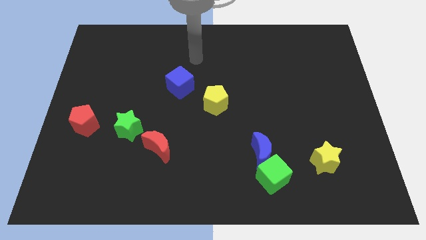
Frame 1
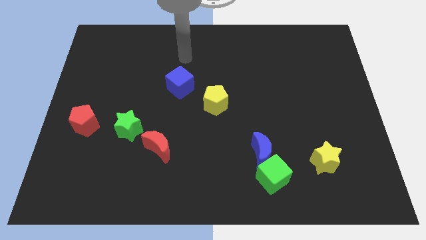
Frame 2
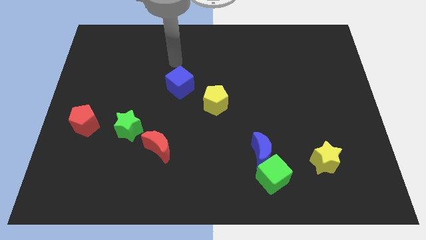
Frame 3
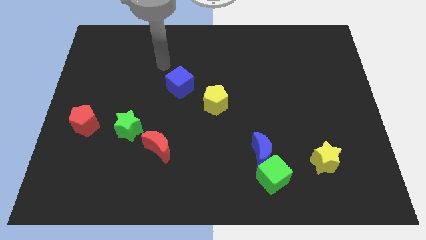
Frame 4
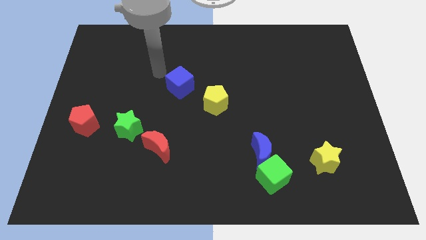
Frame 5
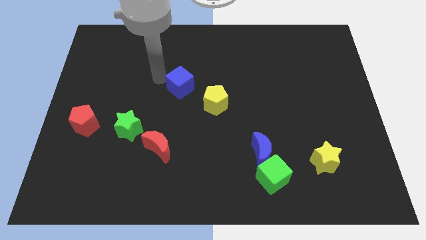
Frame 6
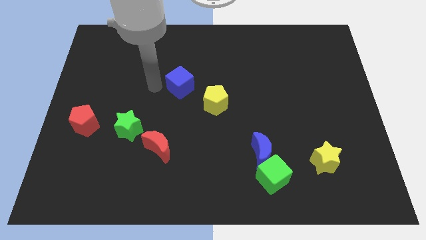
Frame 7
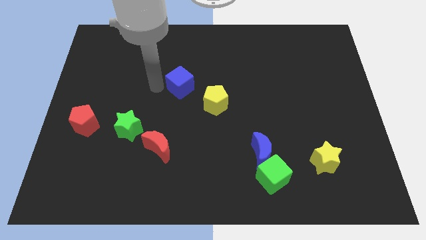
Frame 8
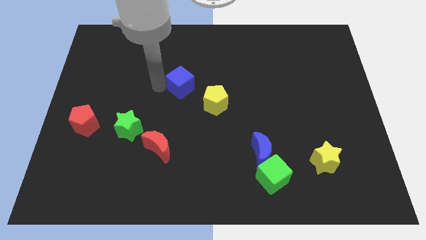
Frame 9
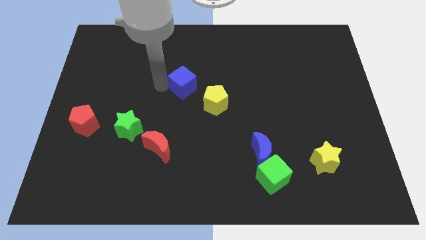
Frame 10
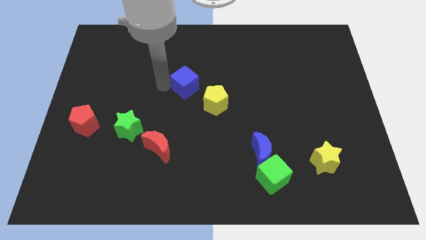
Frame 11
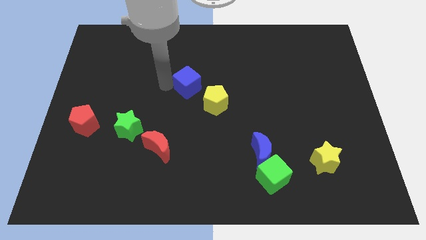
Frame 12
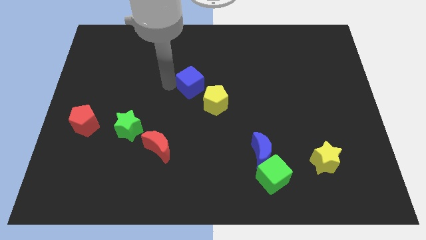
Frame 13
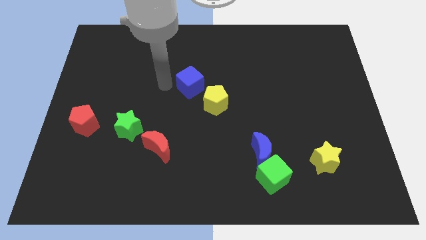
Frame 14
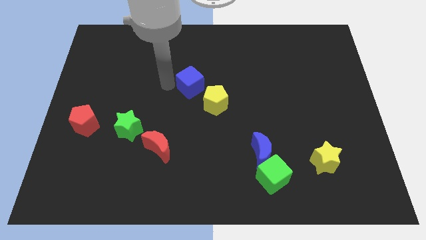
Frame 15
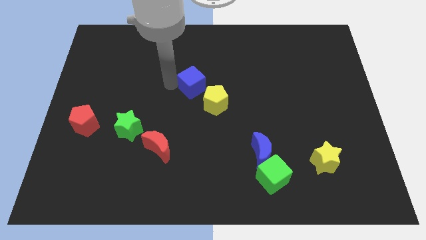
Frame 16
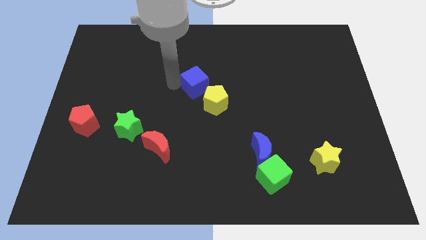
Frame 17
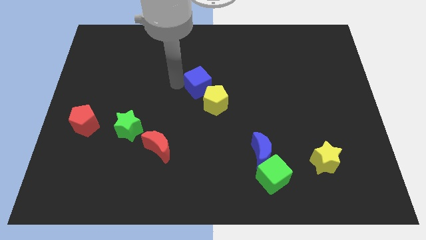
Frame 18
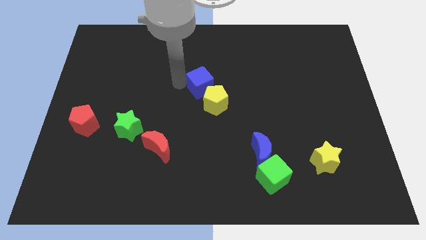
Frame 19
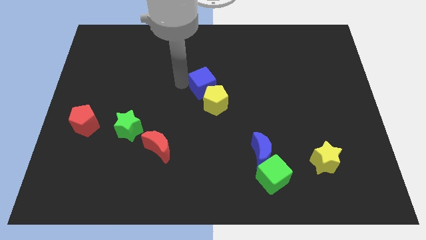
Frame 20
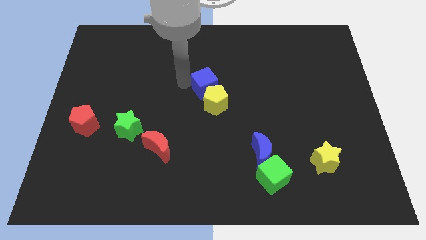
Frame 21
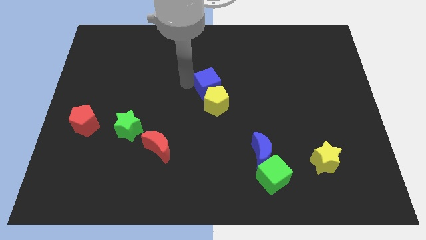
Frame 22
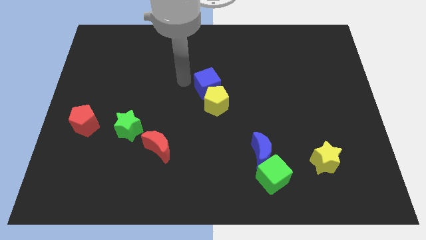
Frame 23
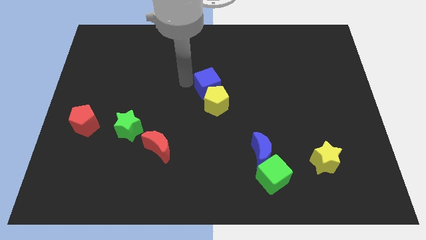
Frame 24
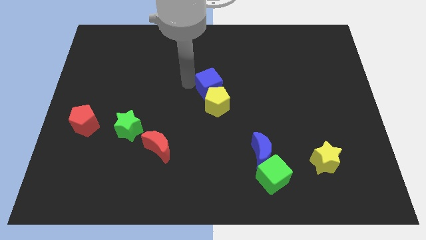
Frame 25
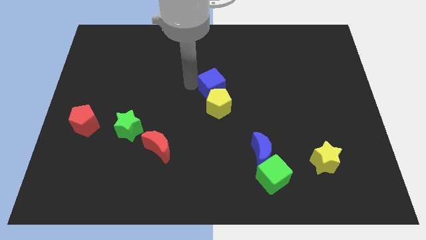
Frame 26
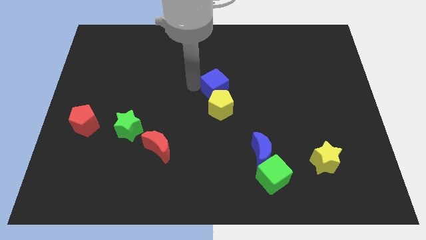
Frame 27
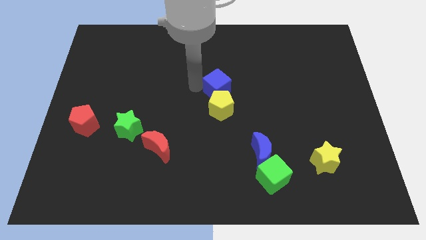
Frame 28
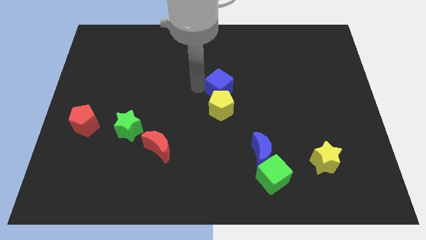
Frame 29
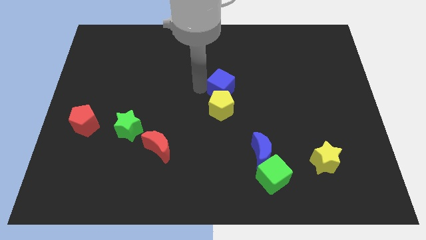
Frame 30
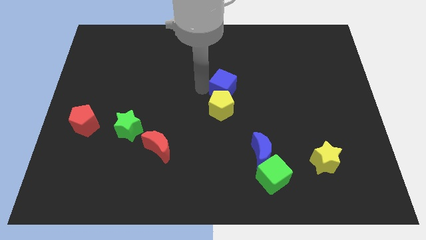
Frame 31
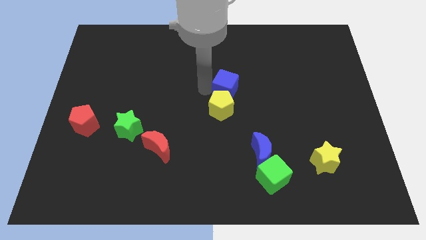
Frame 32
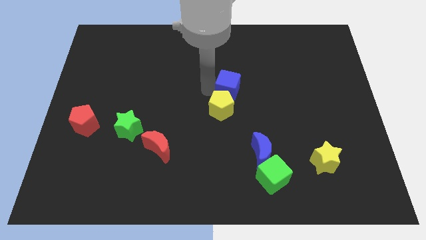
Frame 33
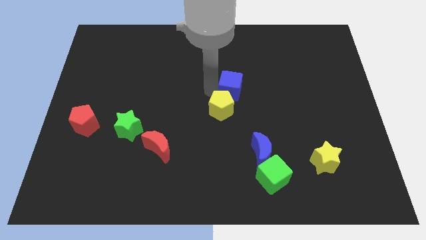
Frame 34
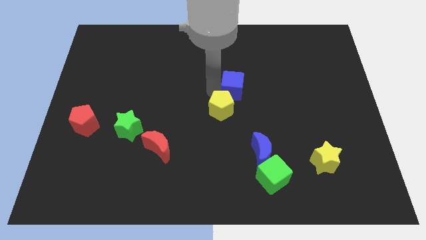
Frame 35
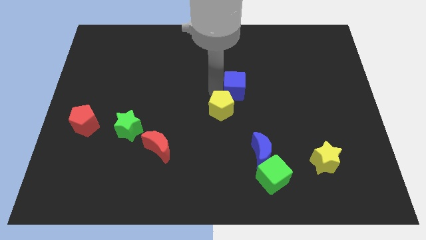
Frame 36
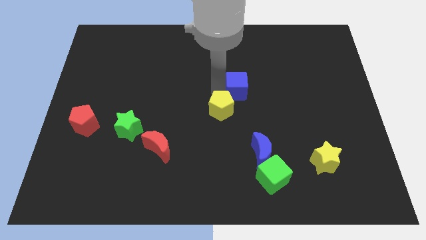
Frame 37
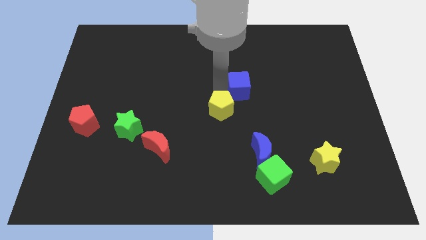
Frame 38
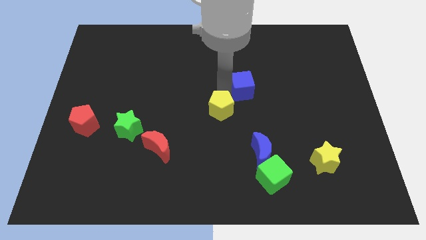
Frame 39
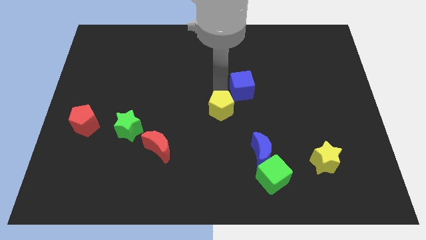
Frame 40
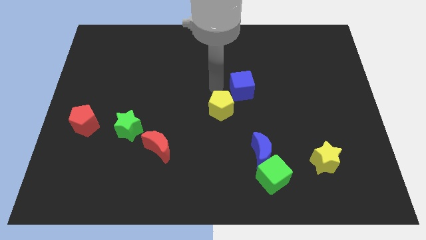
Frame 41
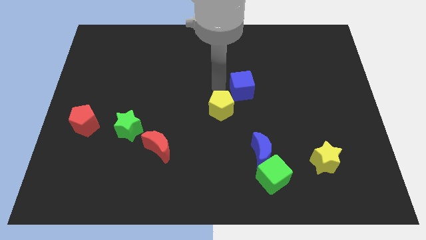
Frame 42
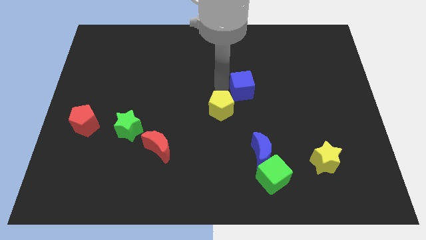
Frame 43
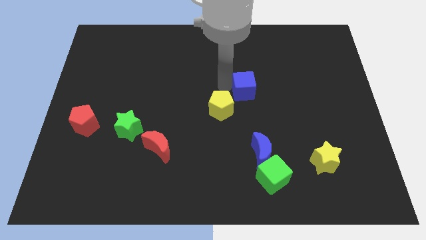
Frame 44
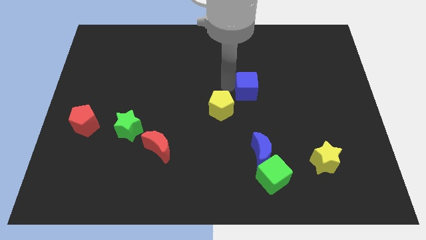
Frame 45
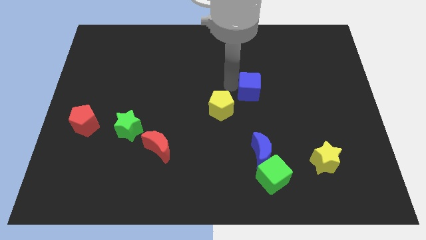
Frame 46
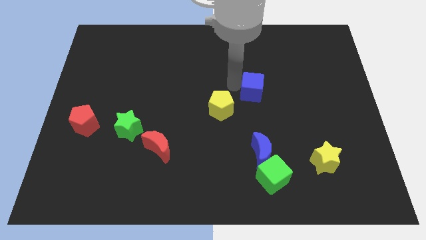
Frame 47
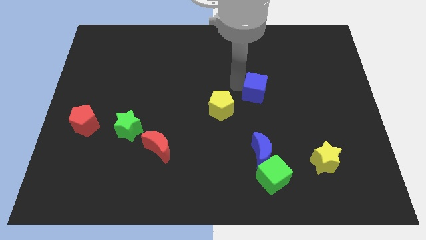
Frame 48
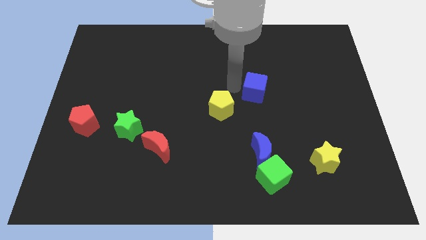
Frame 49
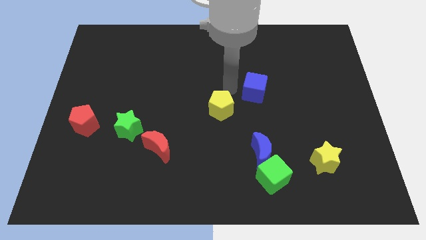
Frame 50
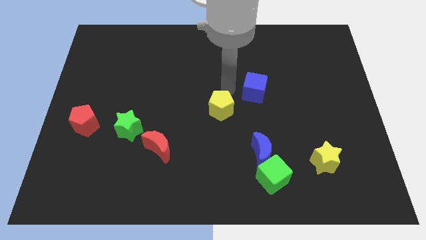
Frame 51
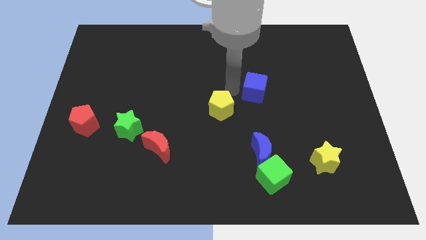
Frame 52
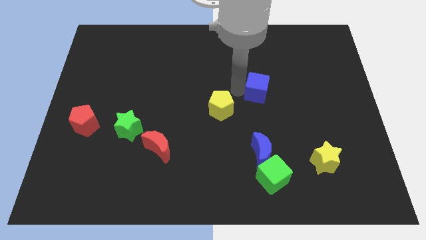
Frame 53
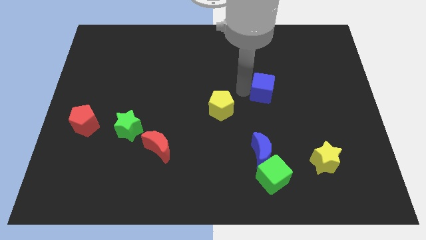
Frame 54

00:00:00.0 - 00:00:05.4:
move the blue cube to the right

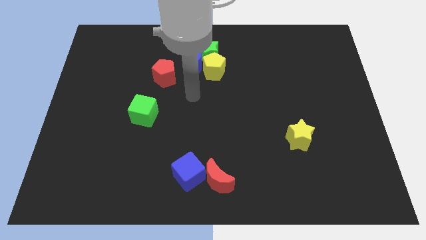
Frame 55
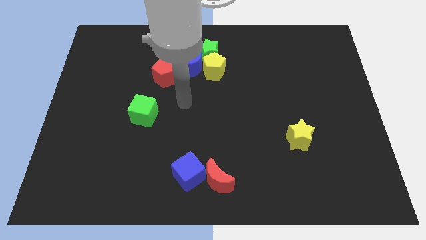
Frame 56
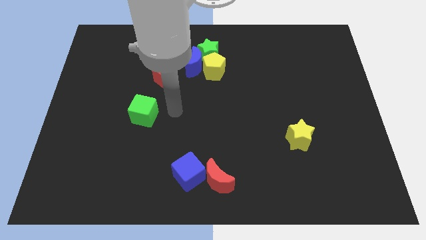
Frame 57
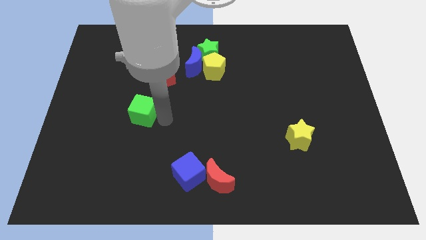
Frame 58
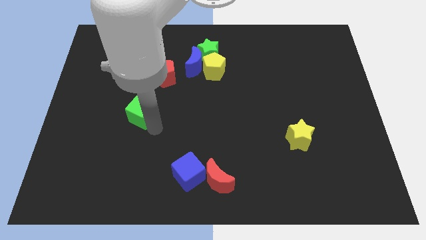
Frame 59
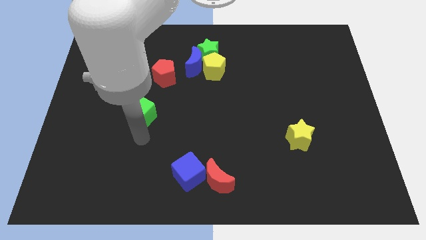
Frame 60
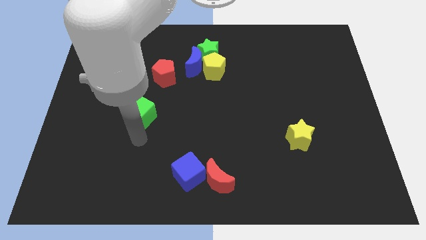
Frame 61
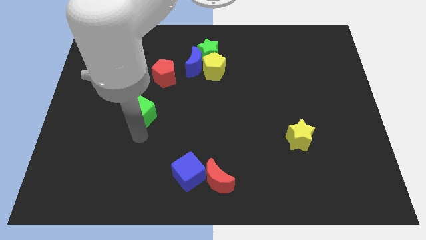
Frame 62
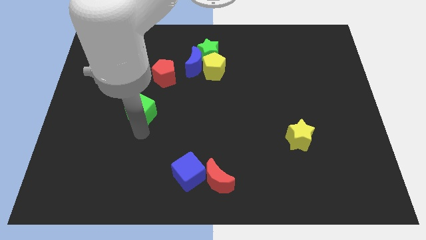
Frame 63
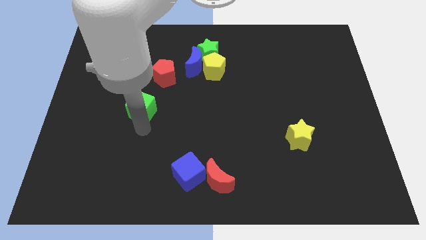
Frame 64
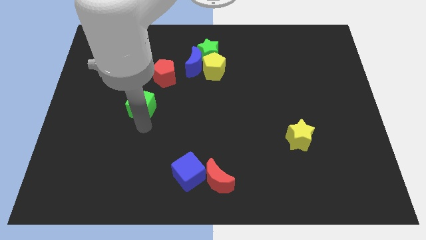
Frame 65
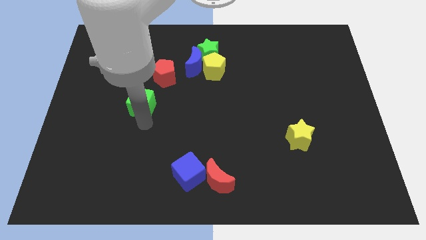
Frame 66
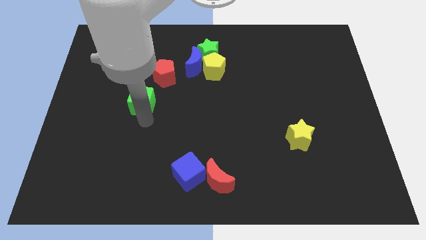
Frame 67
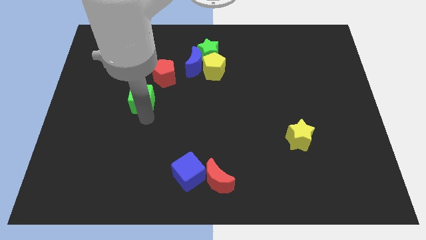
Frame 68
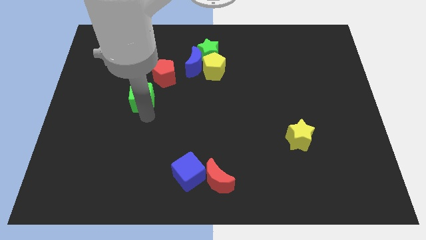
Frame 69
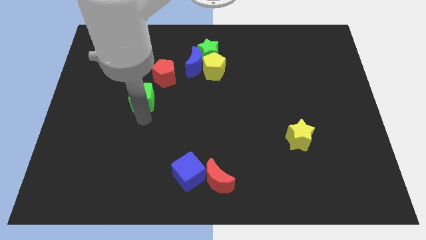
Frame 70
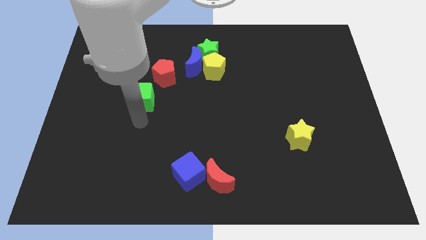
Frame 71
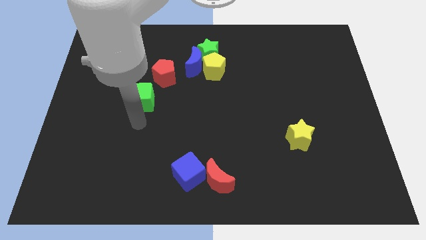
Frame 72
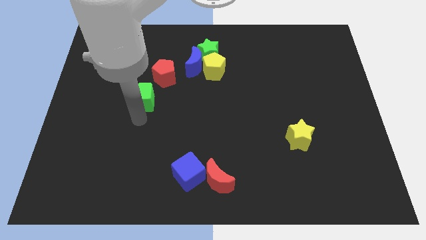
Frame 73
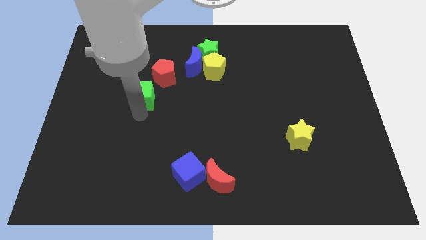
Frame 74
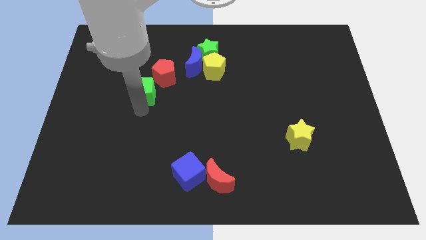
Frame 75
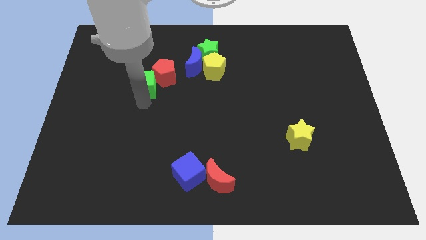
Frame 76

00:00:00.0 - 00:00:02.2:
slightly slide the green cube up
